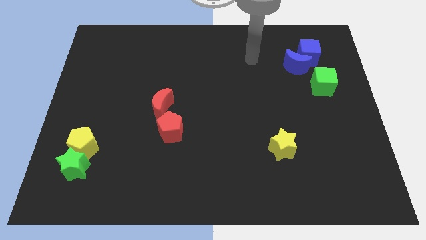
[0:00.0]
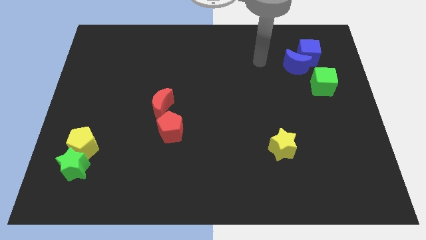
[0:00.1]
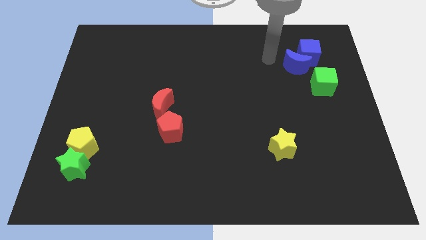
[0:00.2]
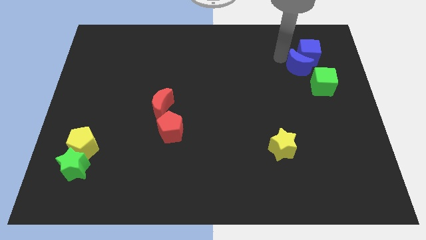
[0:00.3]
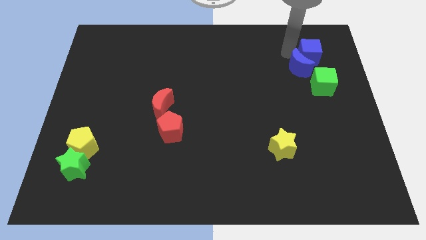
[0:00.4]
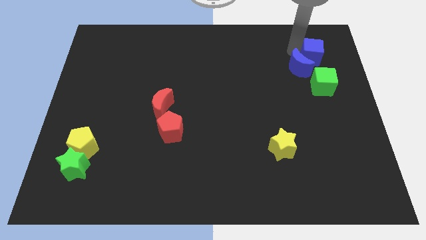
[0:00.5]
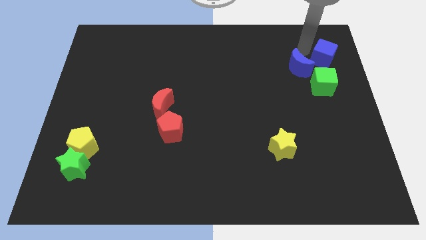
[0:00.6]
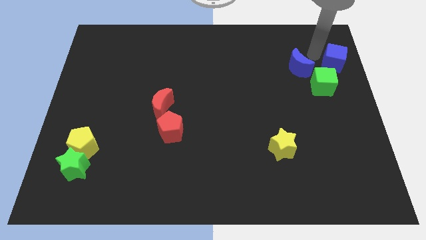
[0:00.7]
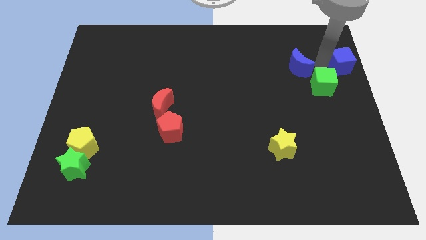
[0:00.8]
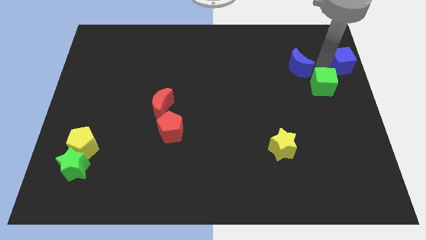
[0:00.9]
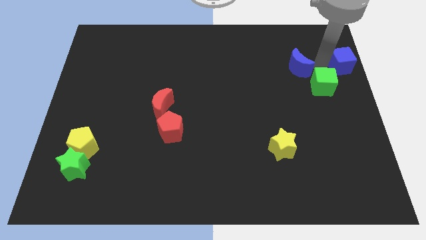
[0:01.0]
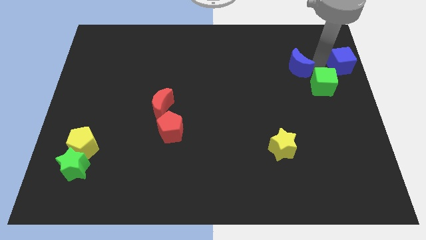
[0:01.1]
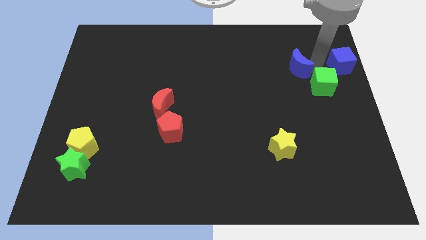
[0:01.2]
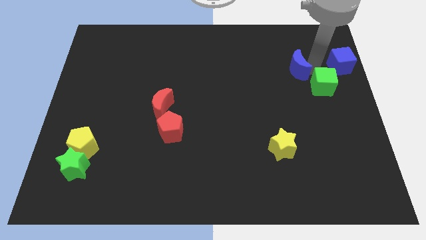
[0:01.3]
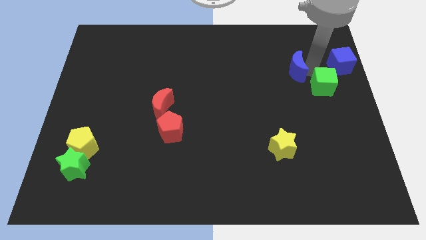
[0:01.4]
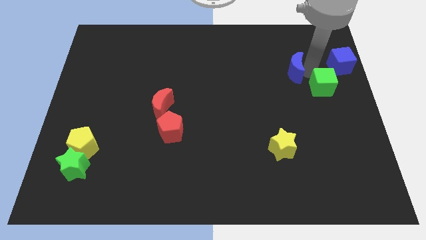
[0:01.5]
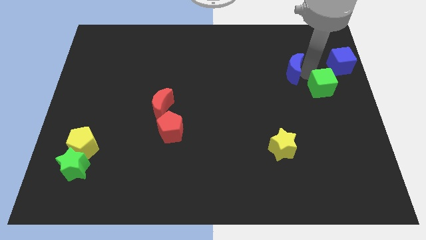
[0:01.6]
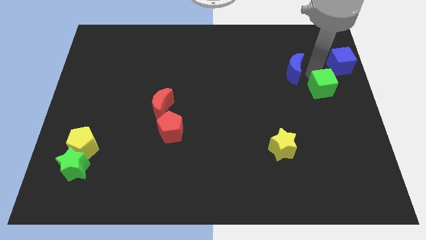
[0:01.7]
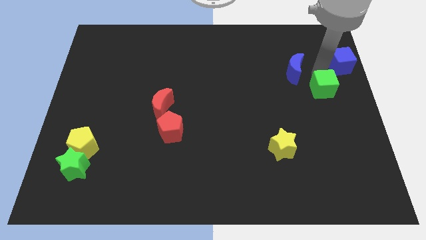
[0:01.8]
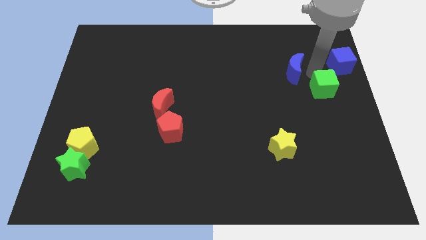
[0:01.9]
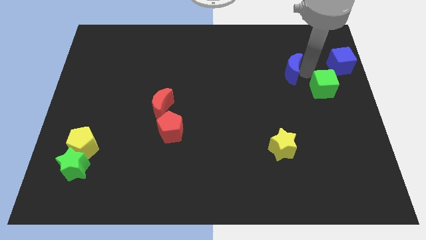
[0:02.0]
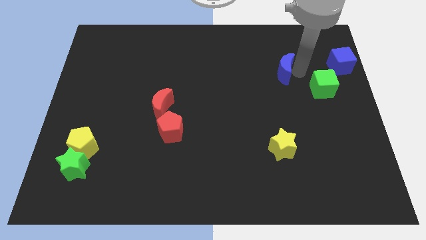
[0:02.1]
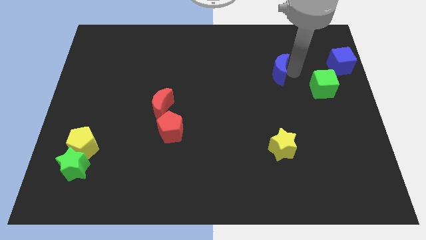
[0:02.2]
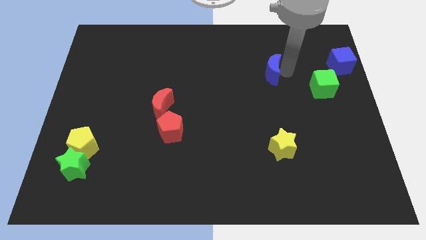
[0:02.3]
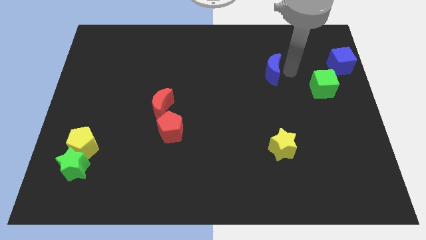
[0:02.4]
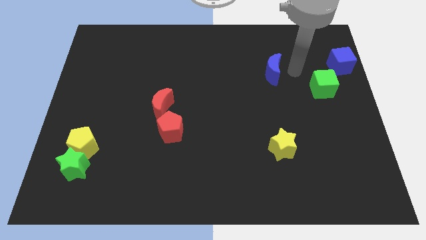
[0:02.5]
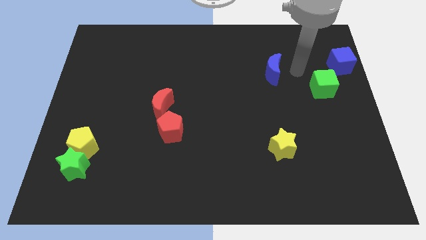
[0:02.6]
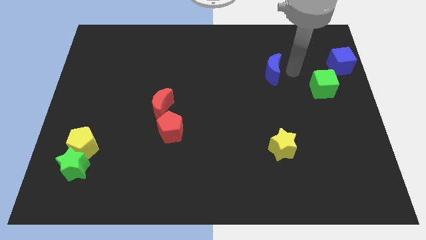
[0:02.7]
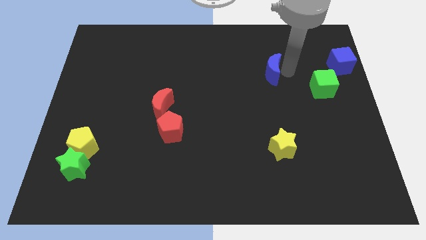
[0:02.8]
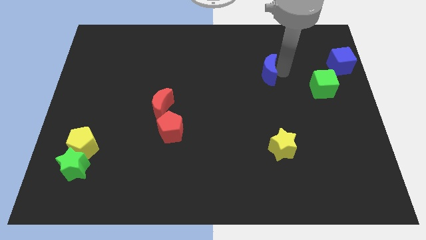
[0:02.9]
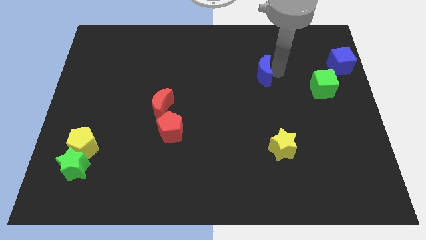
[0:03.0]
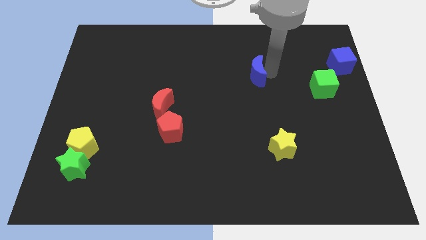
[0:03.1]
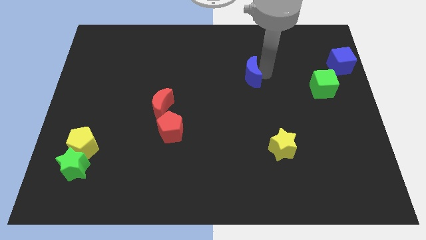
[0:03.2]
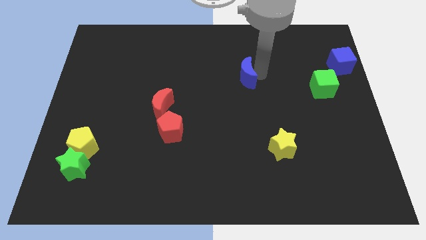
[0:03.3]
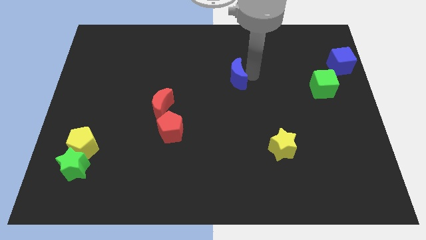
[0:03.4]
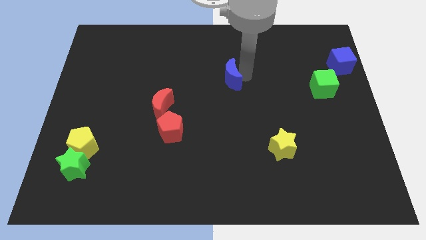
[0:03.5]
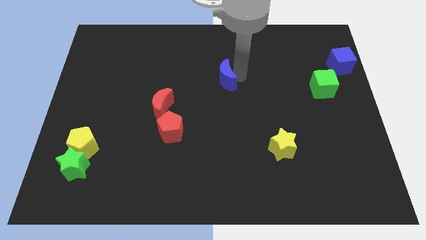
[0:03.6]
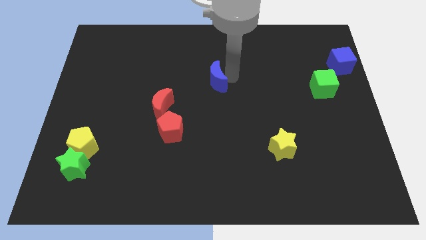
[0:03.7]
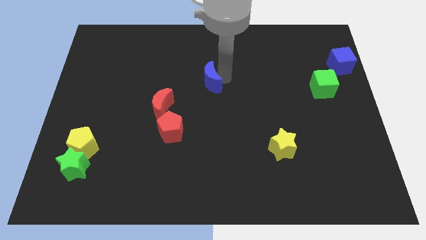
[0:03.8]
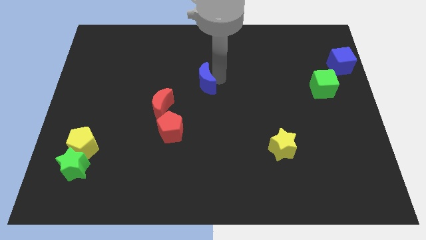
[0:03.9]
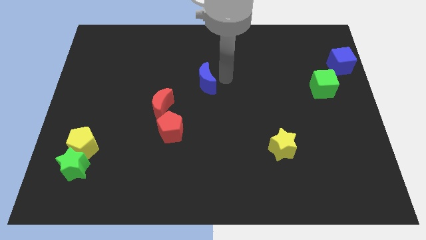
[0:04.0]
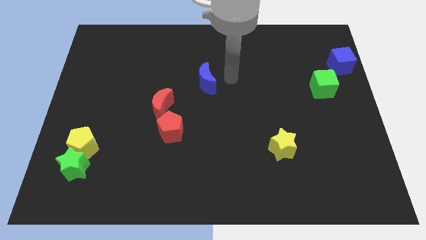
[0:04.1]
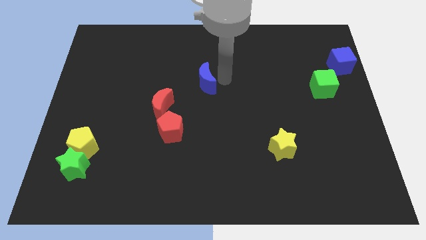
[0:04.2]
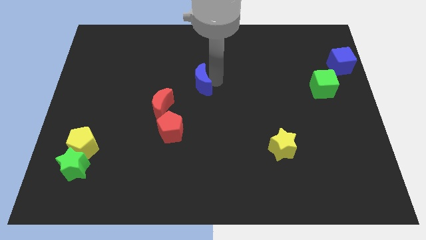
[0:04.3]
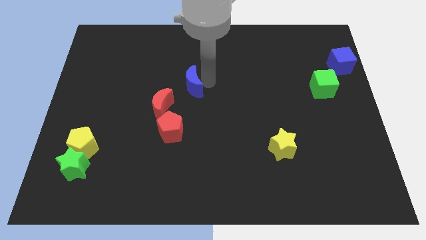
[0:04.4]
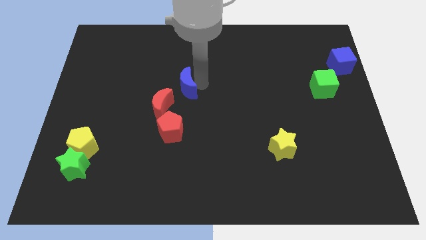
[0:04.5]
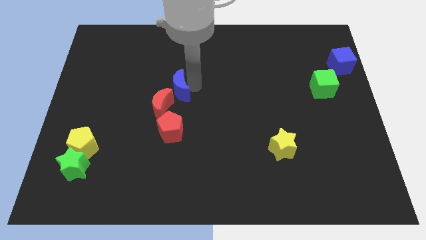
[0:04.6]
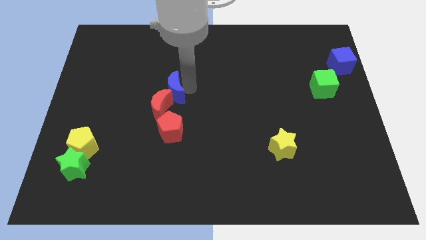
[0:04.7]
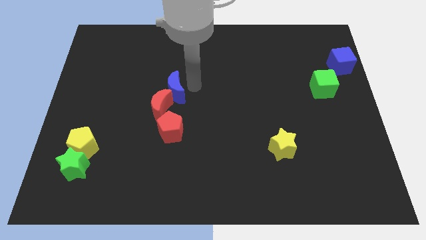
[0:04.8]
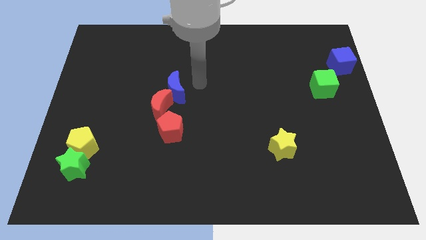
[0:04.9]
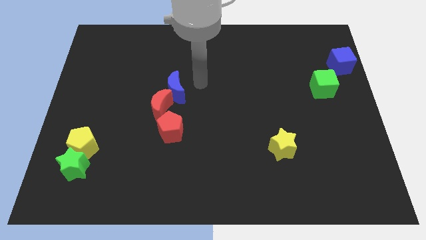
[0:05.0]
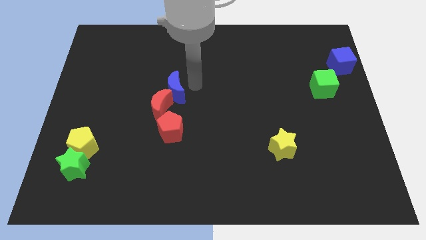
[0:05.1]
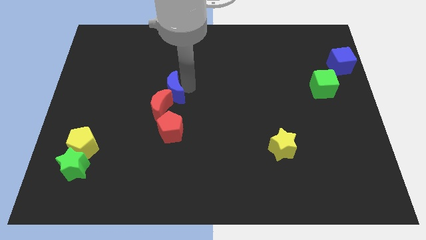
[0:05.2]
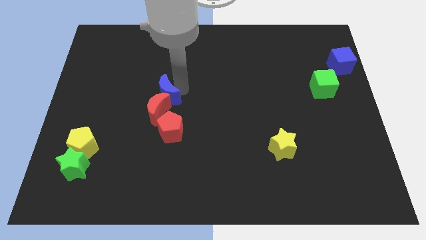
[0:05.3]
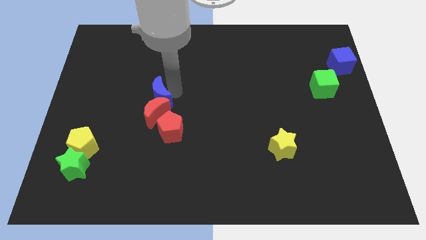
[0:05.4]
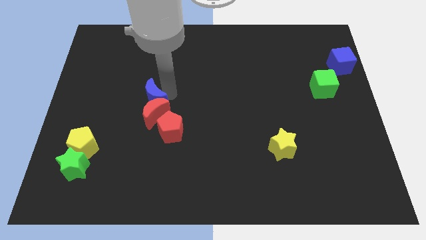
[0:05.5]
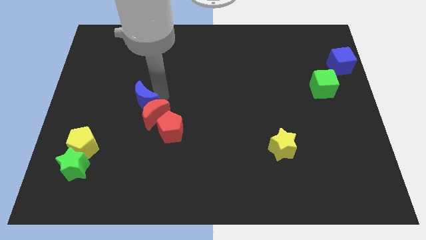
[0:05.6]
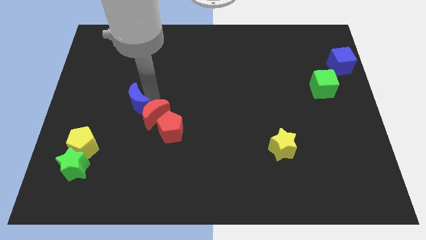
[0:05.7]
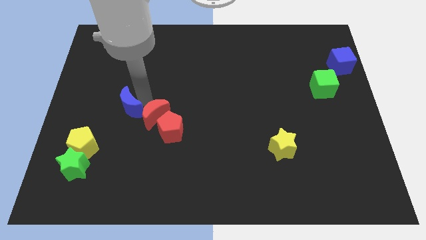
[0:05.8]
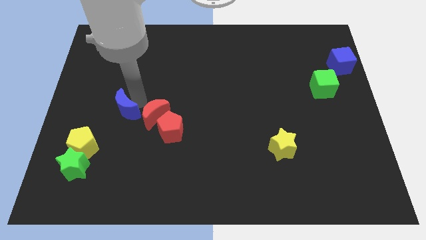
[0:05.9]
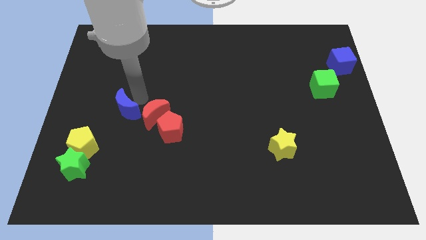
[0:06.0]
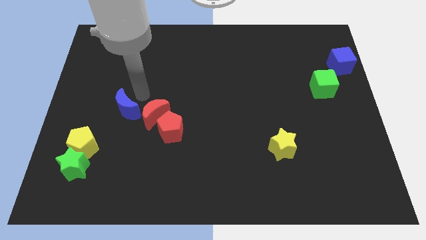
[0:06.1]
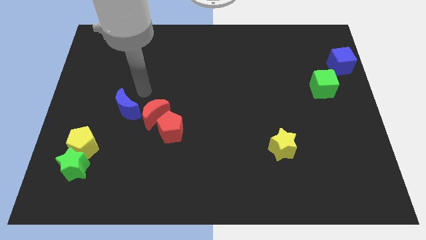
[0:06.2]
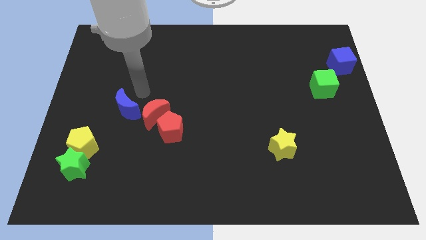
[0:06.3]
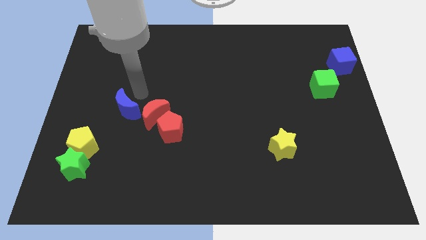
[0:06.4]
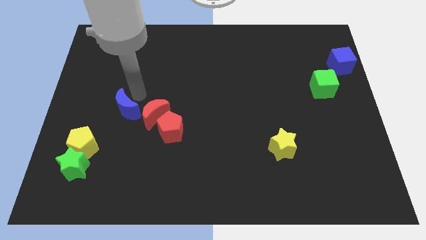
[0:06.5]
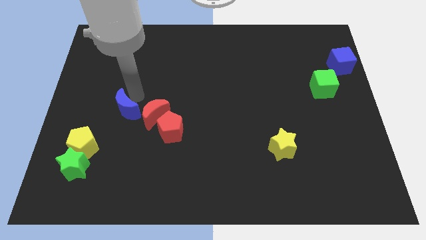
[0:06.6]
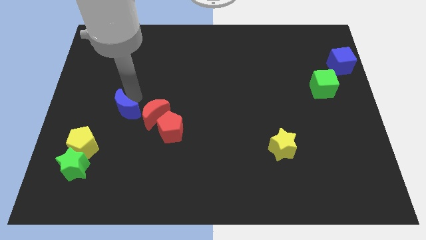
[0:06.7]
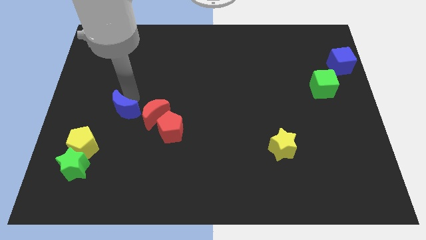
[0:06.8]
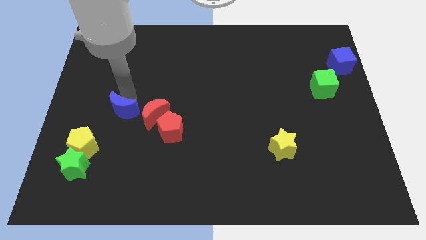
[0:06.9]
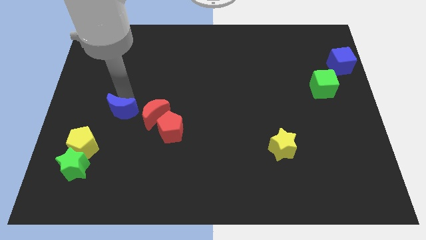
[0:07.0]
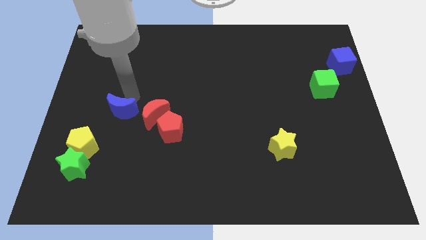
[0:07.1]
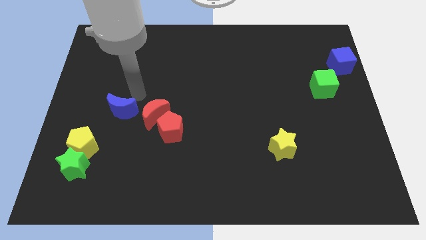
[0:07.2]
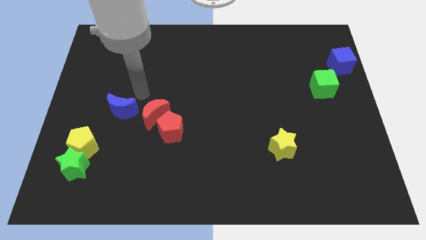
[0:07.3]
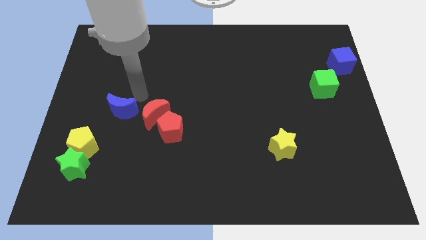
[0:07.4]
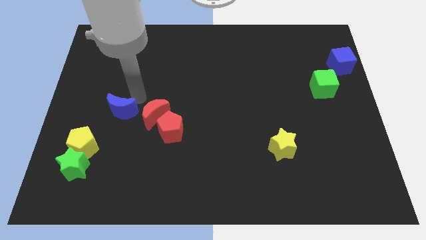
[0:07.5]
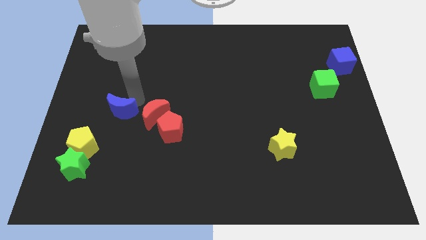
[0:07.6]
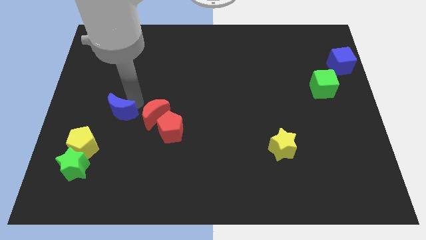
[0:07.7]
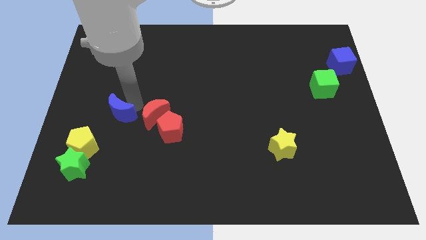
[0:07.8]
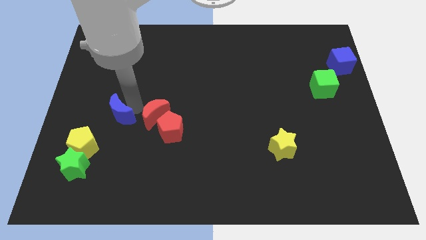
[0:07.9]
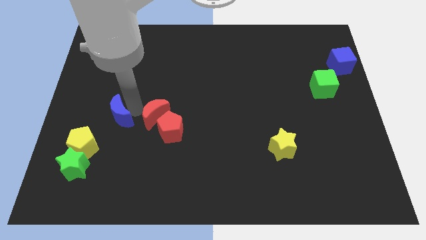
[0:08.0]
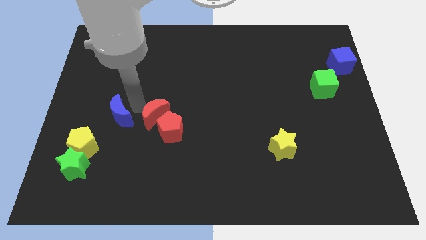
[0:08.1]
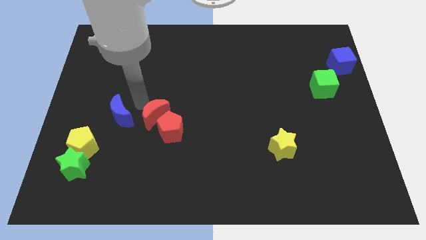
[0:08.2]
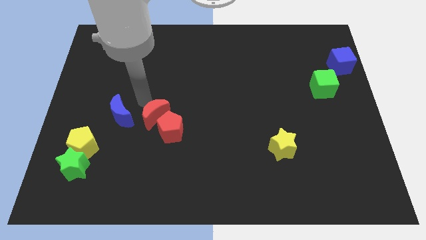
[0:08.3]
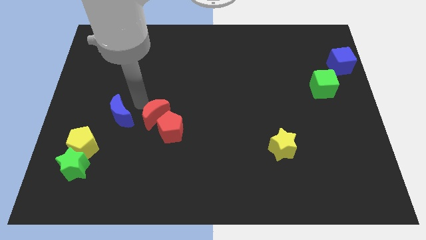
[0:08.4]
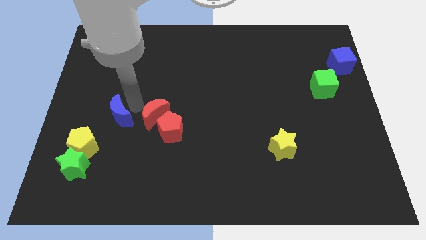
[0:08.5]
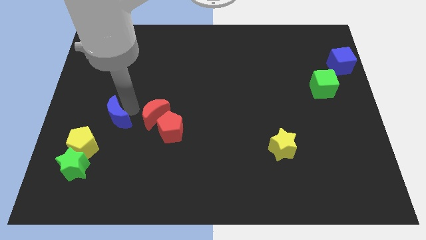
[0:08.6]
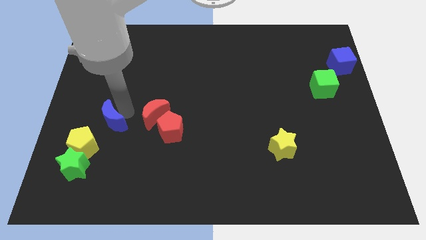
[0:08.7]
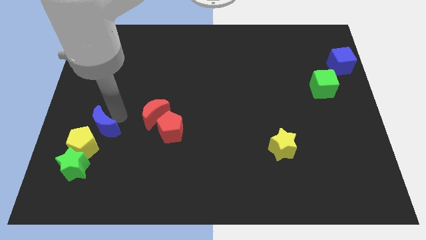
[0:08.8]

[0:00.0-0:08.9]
put the blue moon close to the yellow pentagon
